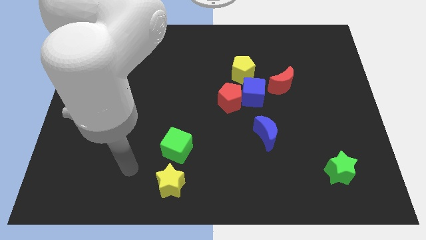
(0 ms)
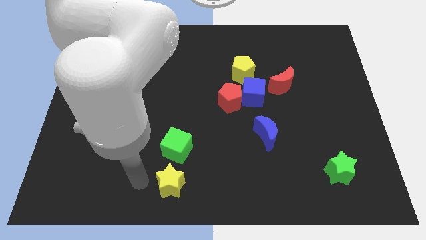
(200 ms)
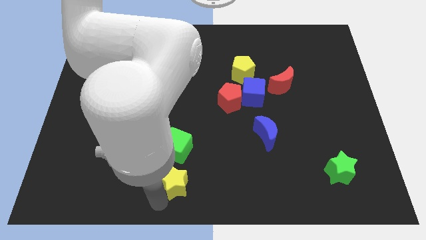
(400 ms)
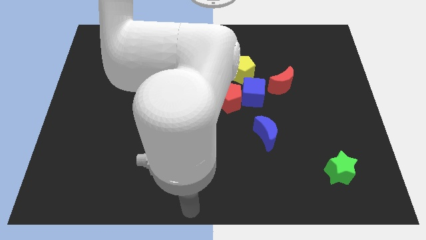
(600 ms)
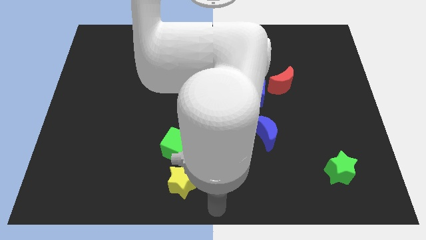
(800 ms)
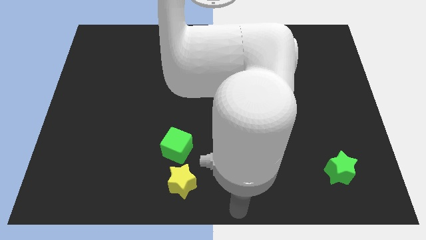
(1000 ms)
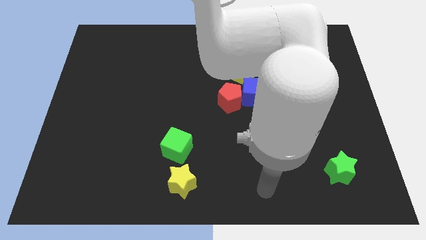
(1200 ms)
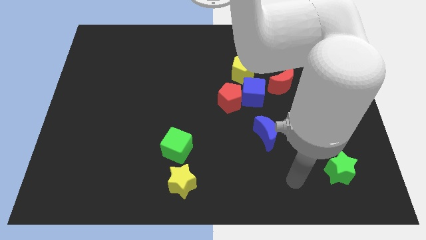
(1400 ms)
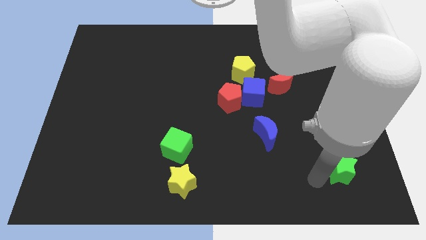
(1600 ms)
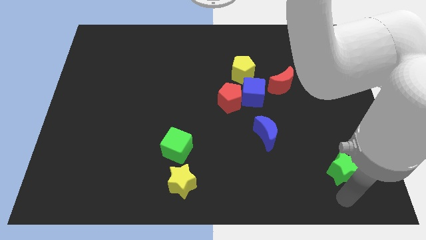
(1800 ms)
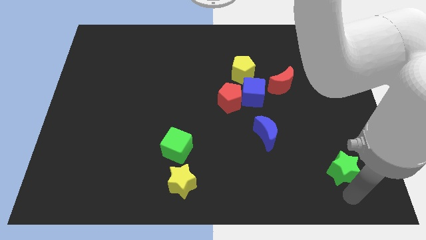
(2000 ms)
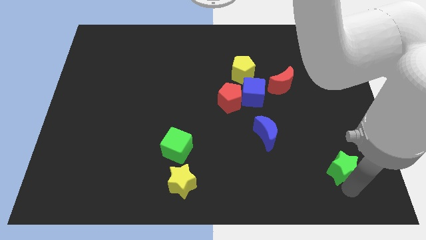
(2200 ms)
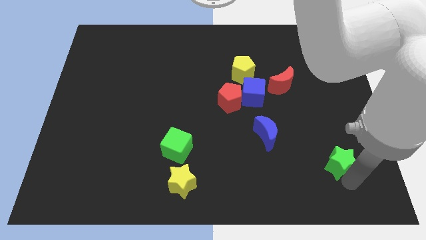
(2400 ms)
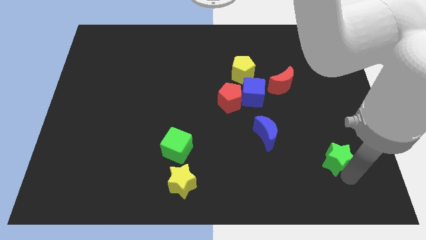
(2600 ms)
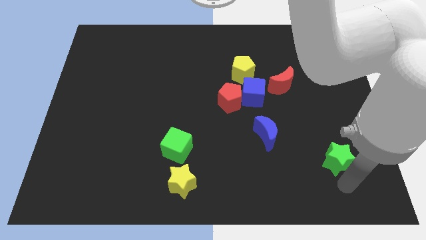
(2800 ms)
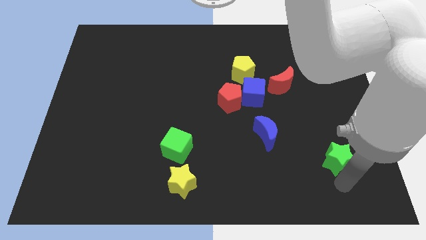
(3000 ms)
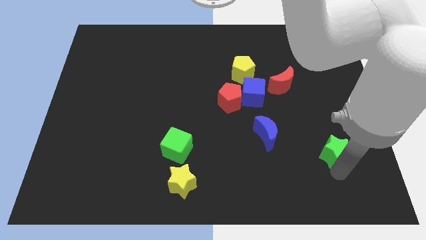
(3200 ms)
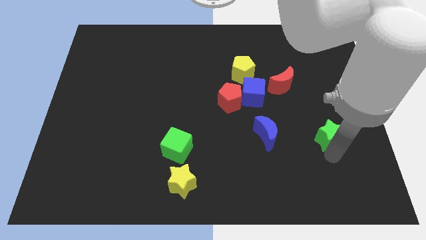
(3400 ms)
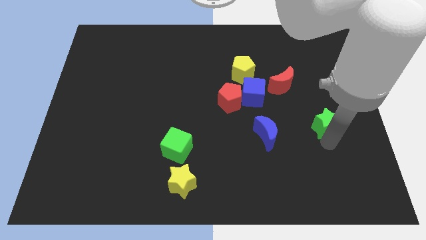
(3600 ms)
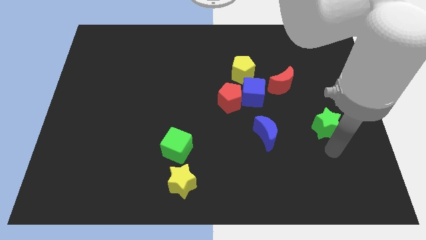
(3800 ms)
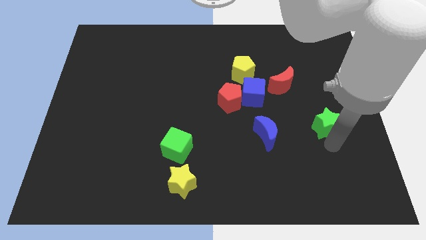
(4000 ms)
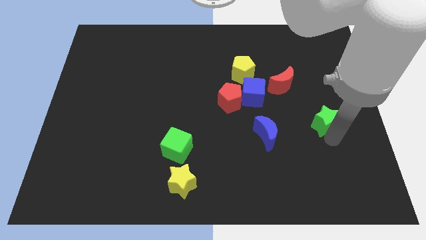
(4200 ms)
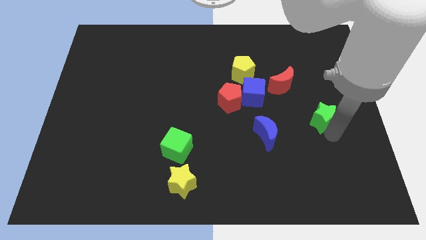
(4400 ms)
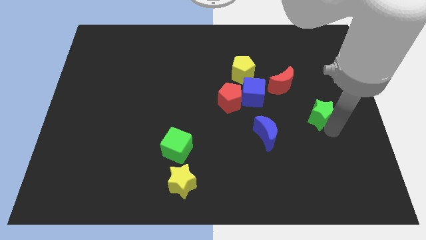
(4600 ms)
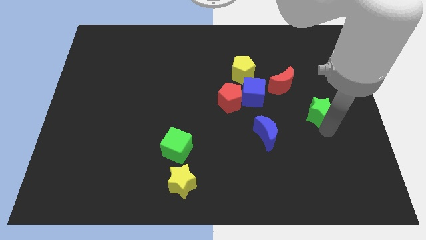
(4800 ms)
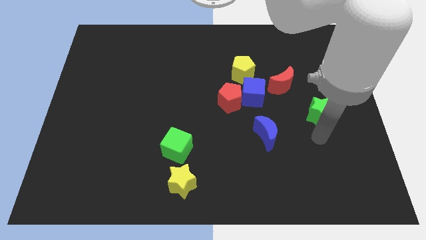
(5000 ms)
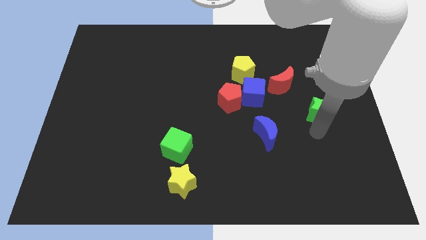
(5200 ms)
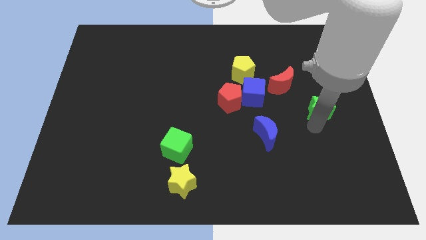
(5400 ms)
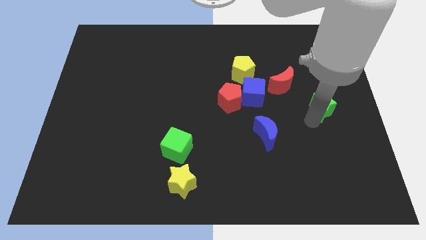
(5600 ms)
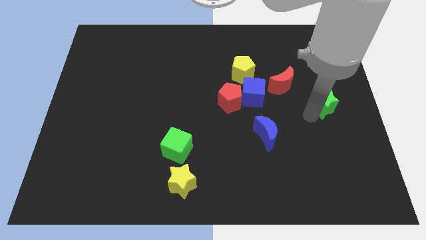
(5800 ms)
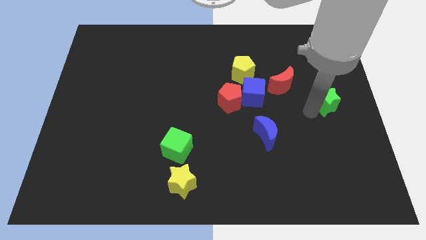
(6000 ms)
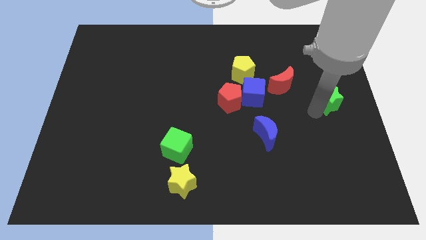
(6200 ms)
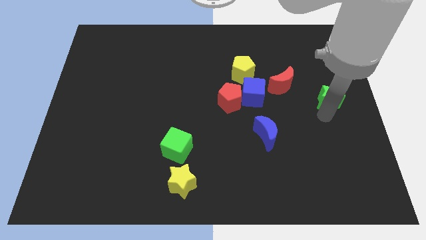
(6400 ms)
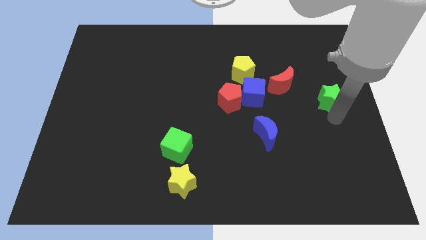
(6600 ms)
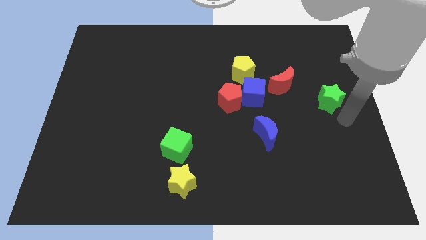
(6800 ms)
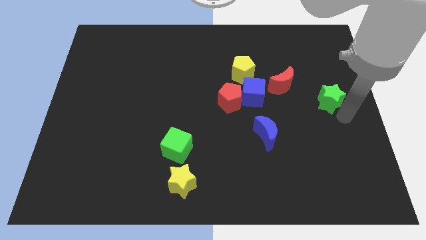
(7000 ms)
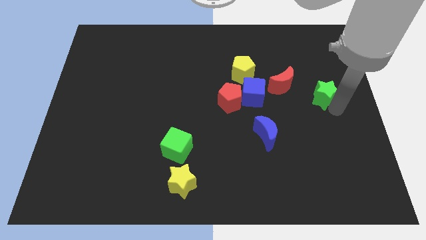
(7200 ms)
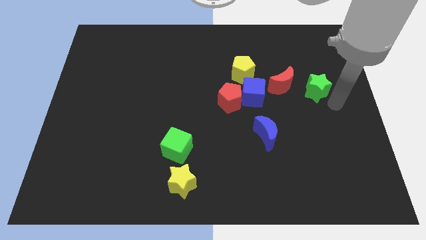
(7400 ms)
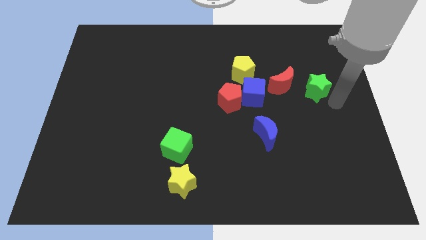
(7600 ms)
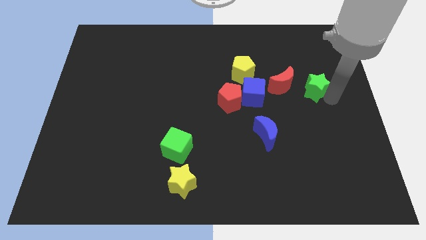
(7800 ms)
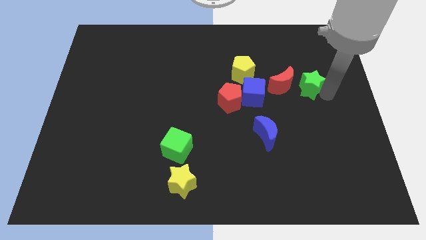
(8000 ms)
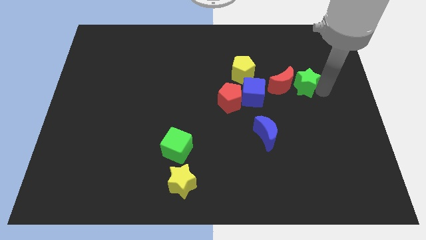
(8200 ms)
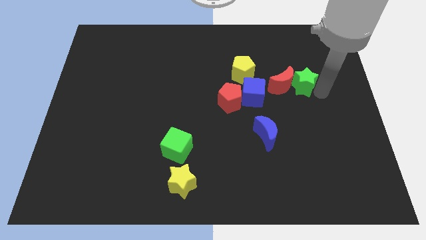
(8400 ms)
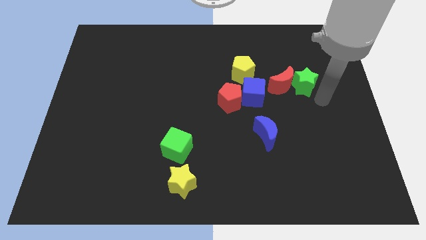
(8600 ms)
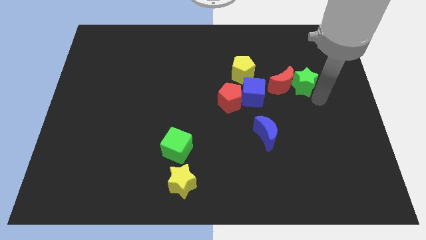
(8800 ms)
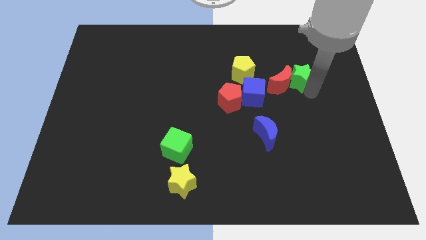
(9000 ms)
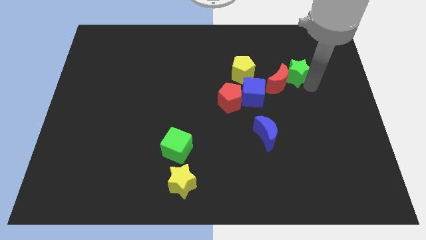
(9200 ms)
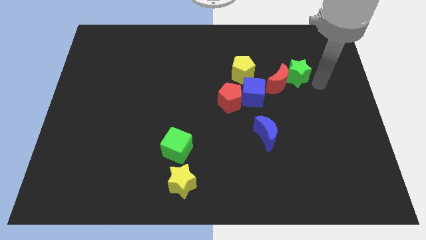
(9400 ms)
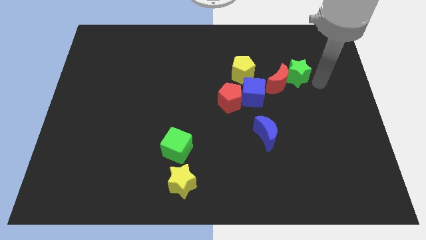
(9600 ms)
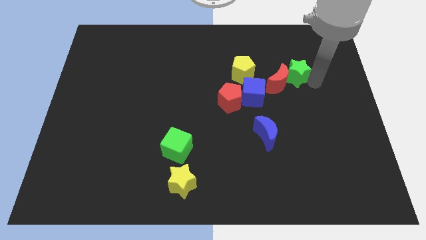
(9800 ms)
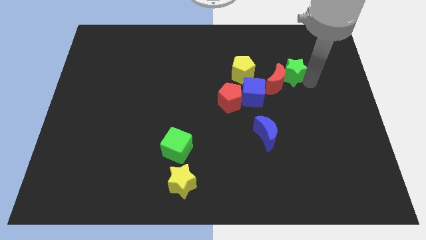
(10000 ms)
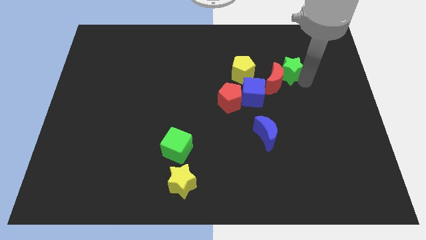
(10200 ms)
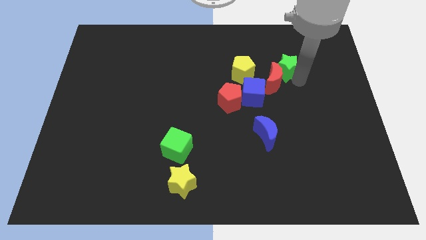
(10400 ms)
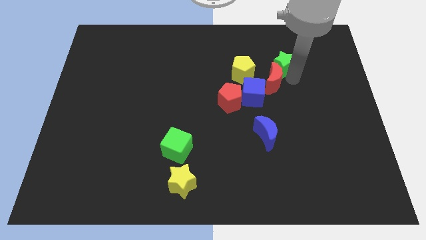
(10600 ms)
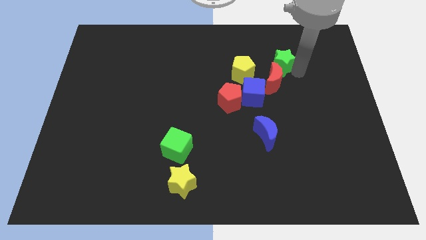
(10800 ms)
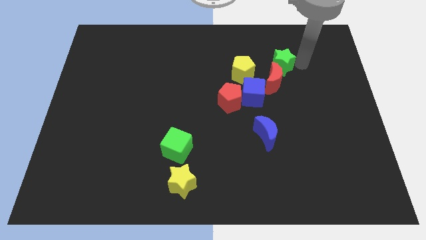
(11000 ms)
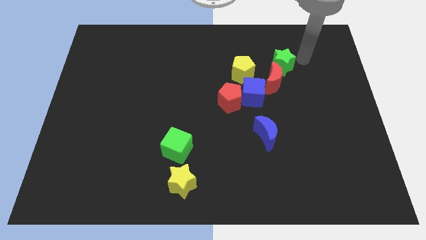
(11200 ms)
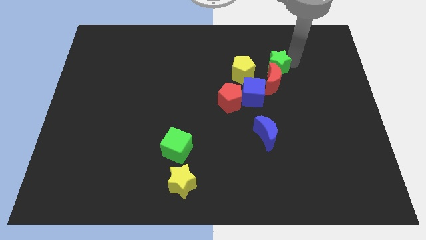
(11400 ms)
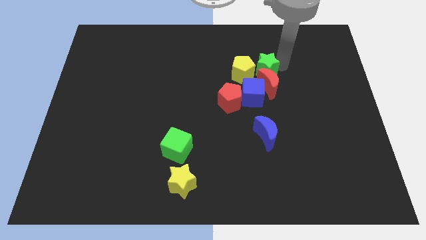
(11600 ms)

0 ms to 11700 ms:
put the green star close to the yellow pentagon

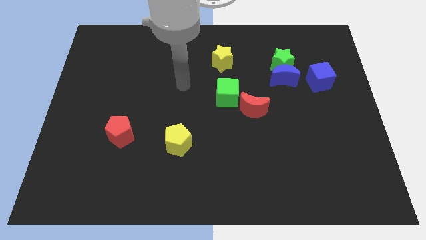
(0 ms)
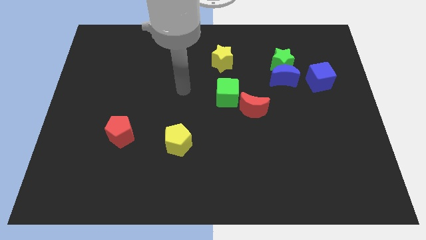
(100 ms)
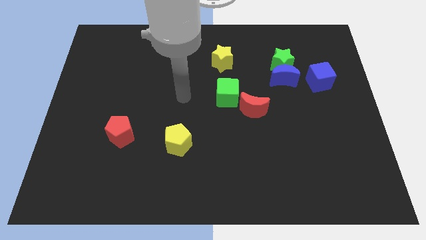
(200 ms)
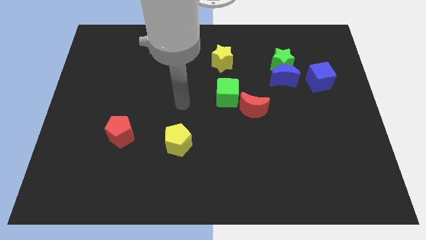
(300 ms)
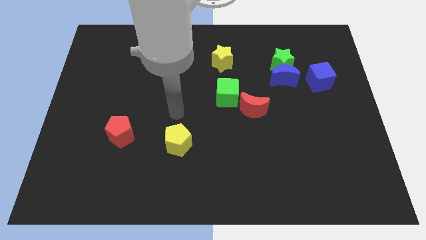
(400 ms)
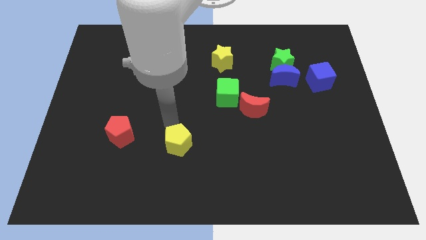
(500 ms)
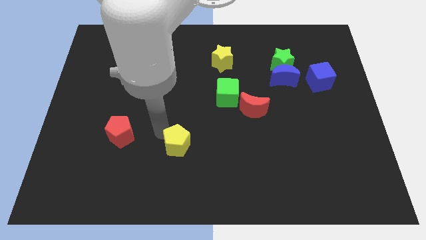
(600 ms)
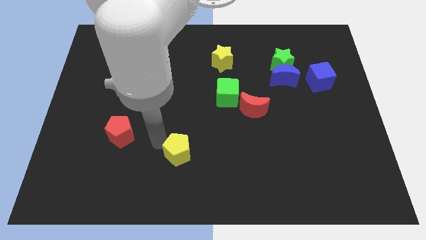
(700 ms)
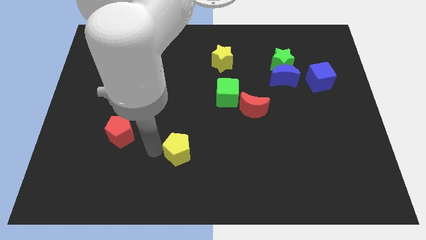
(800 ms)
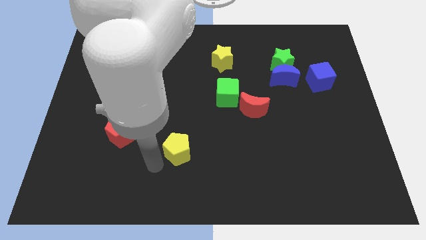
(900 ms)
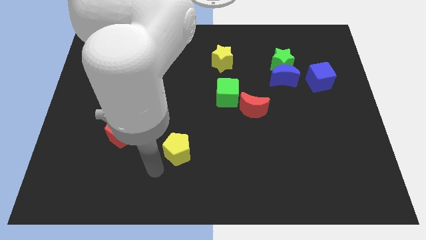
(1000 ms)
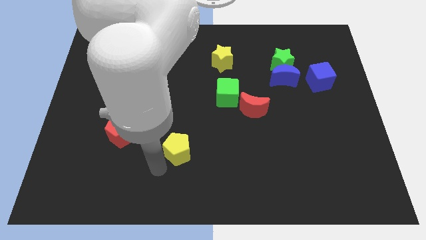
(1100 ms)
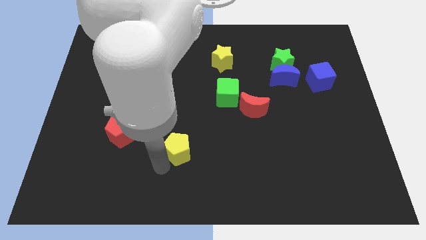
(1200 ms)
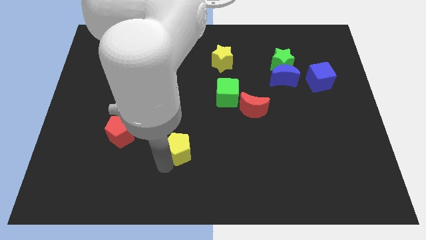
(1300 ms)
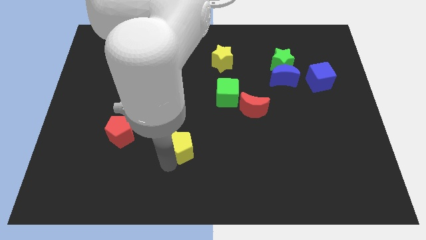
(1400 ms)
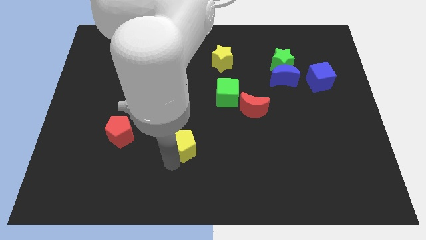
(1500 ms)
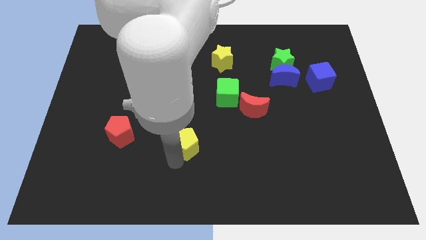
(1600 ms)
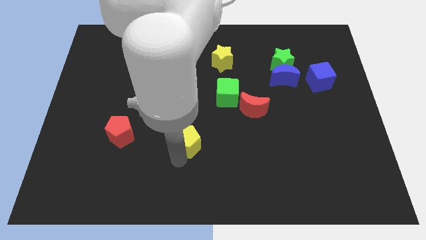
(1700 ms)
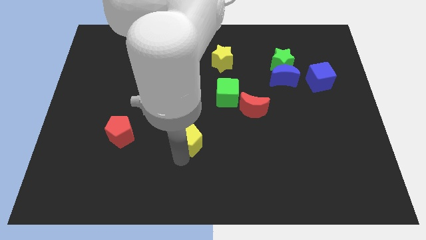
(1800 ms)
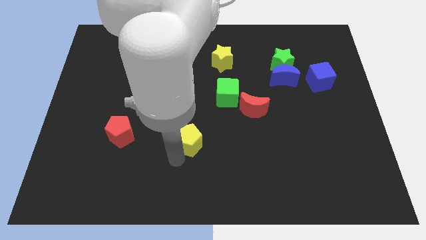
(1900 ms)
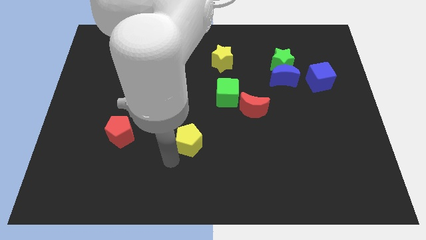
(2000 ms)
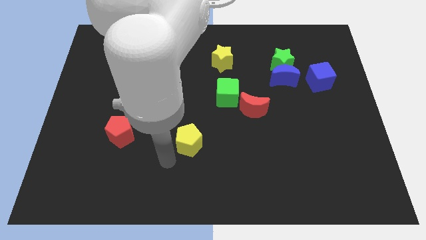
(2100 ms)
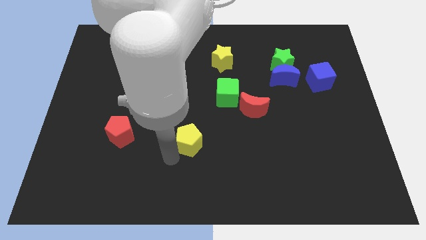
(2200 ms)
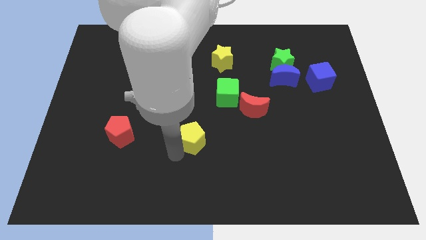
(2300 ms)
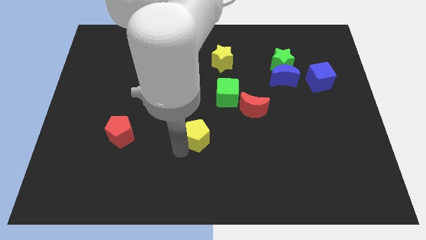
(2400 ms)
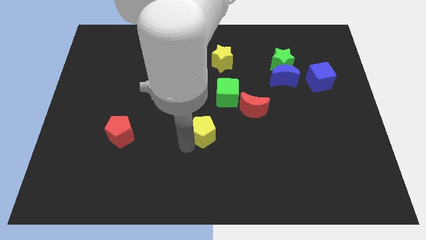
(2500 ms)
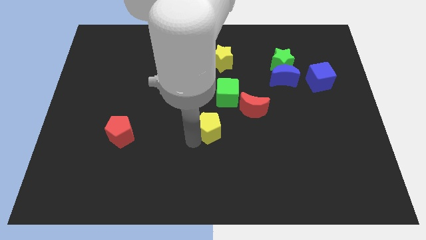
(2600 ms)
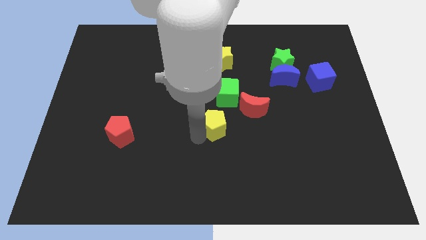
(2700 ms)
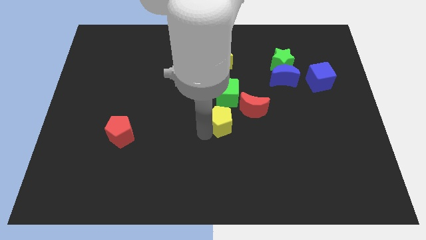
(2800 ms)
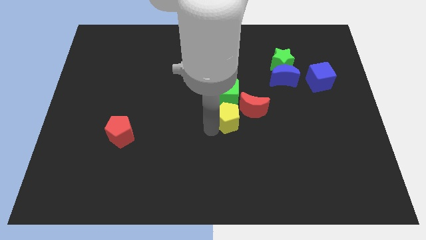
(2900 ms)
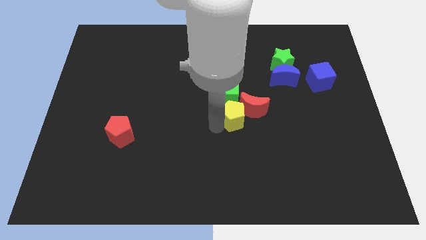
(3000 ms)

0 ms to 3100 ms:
move the yellow pentagon to the red moon
